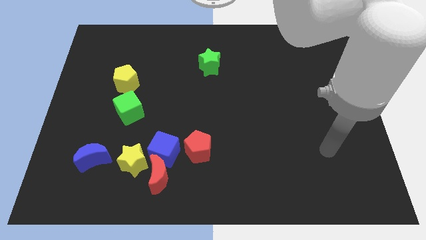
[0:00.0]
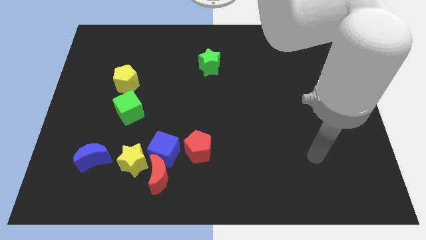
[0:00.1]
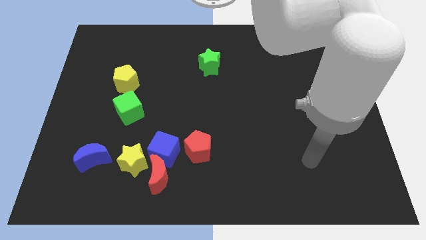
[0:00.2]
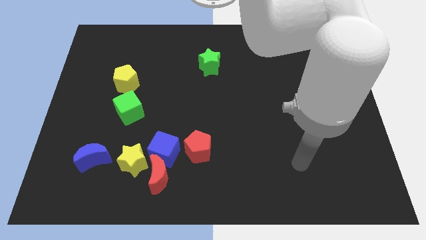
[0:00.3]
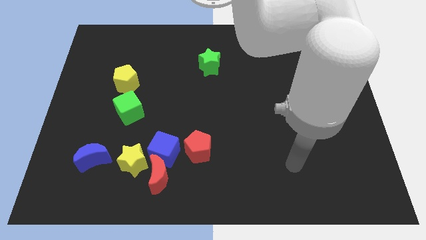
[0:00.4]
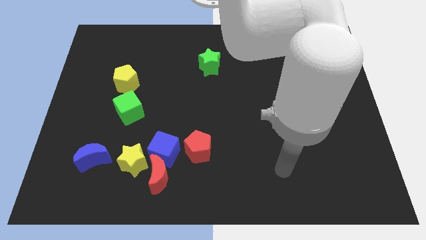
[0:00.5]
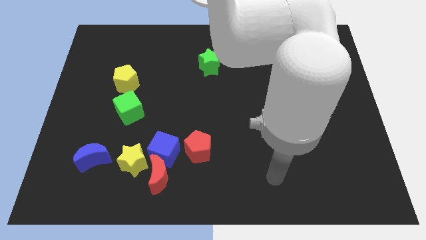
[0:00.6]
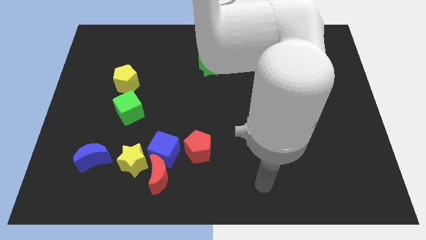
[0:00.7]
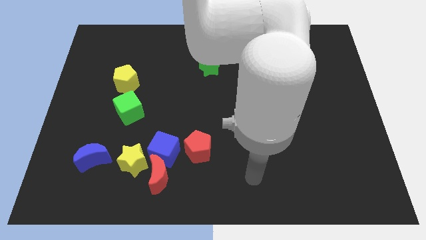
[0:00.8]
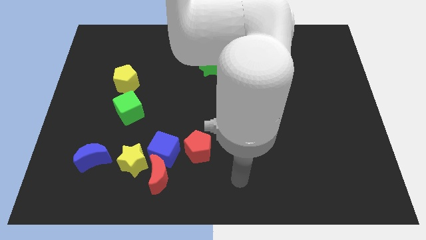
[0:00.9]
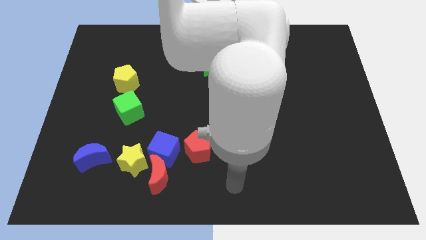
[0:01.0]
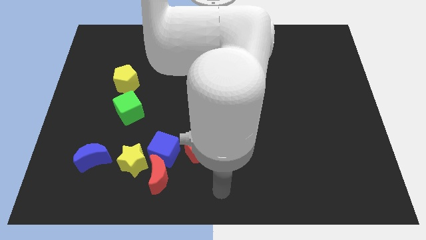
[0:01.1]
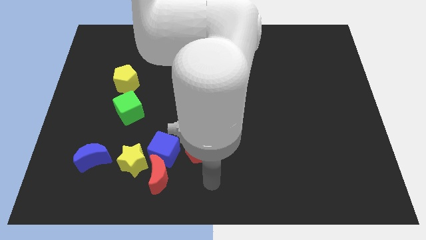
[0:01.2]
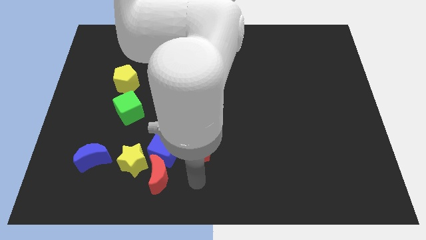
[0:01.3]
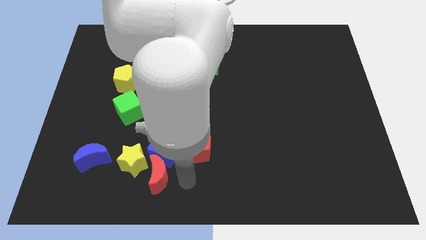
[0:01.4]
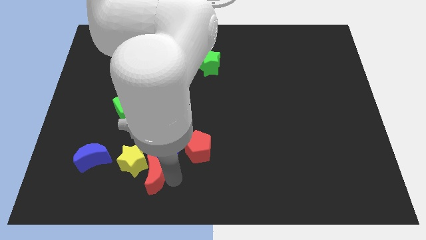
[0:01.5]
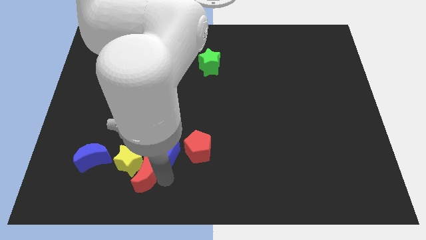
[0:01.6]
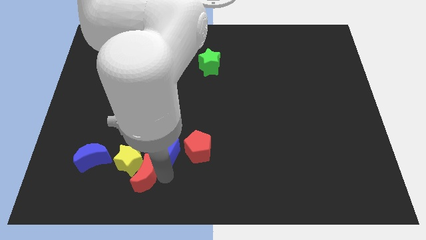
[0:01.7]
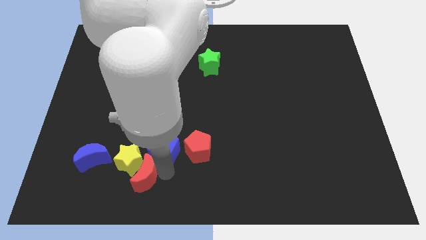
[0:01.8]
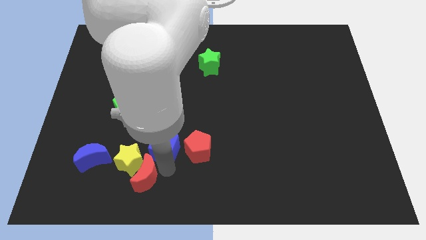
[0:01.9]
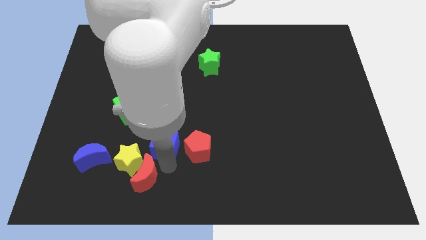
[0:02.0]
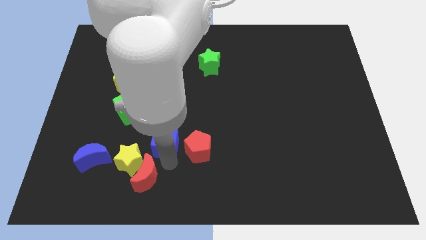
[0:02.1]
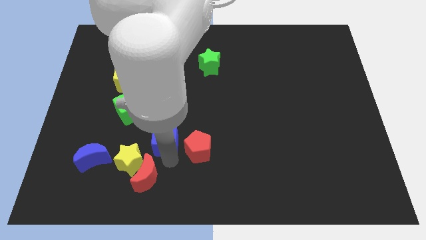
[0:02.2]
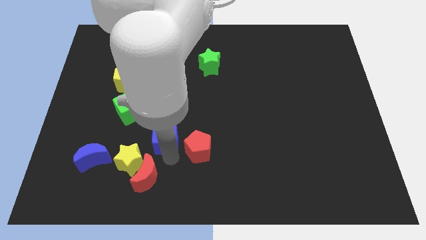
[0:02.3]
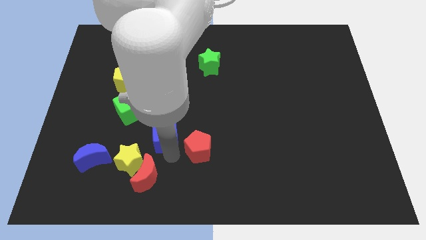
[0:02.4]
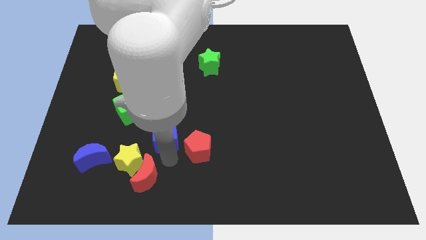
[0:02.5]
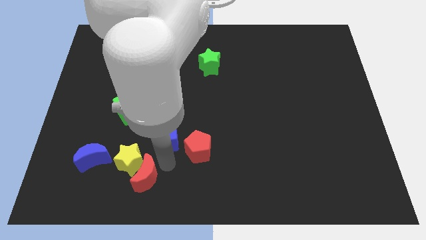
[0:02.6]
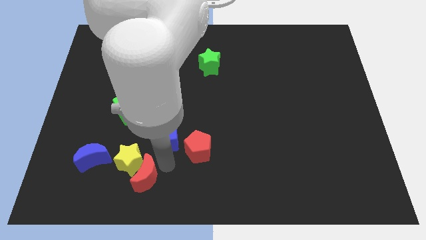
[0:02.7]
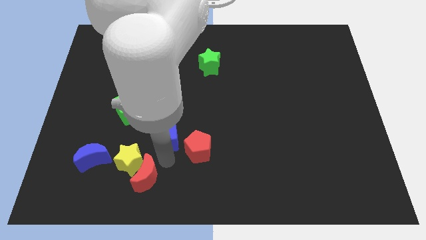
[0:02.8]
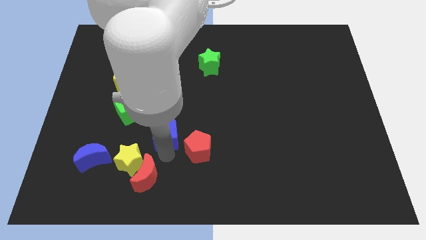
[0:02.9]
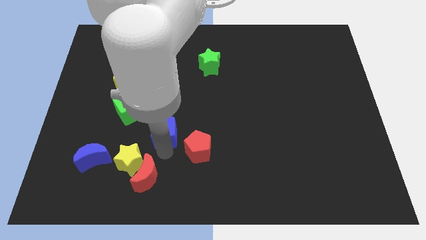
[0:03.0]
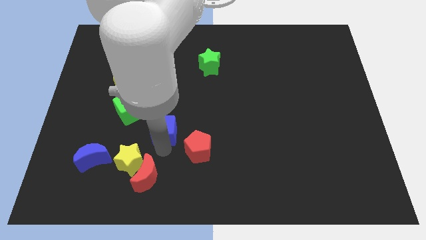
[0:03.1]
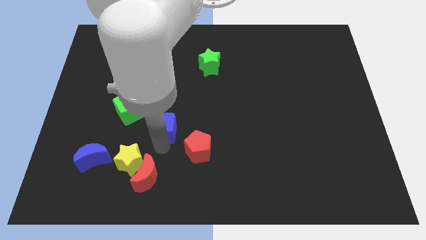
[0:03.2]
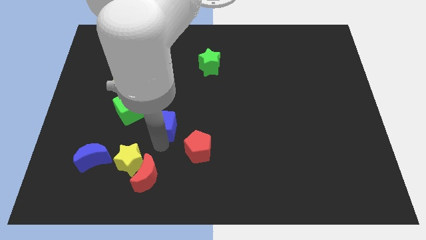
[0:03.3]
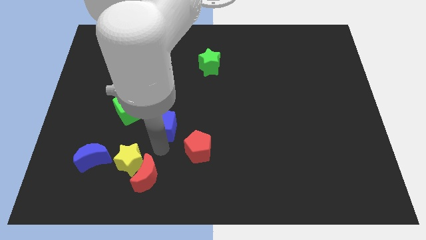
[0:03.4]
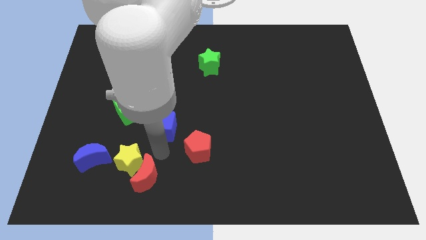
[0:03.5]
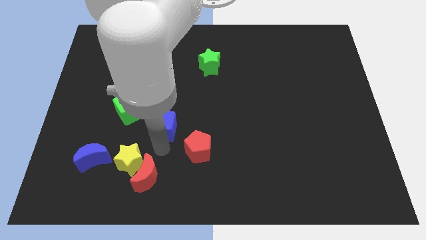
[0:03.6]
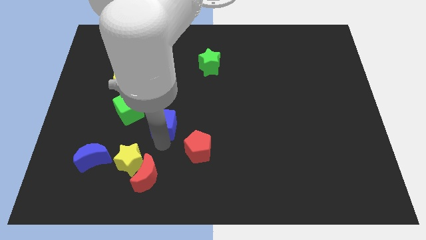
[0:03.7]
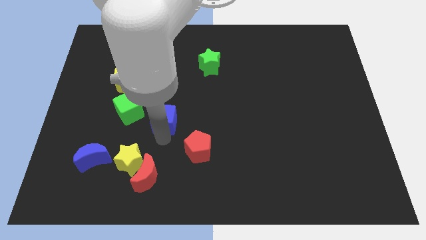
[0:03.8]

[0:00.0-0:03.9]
pull the blue cube apart from the red moon, yellow star, and red pentagon

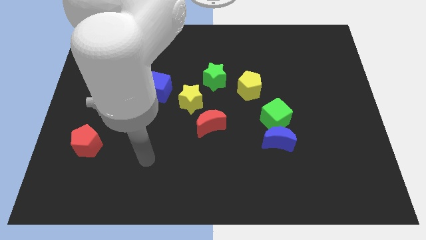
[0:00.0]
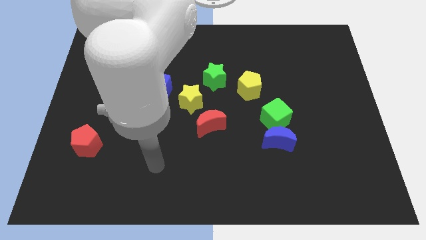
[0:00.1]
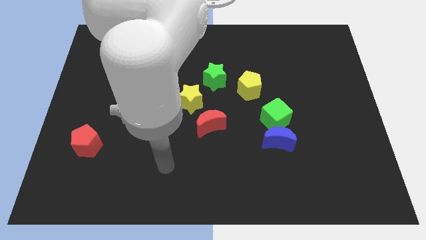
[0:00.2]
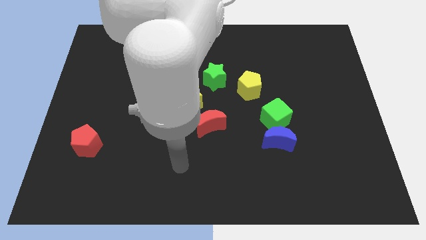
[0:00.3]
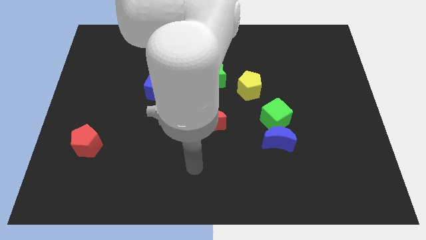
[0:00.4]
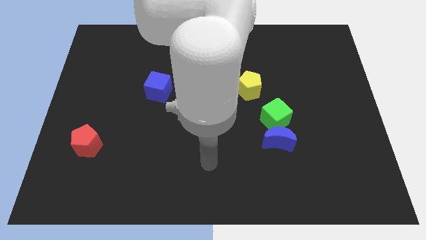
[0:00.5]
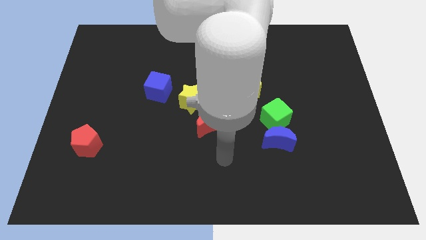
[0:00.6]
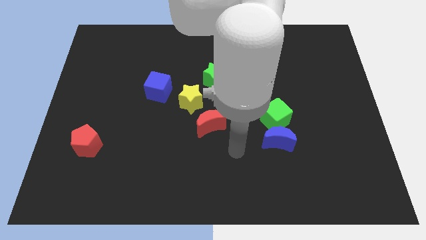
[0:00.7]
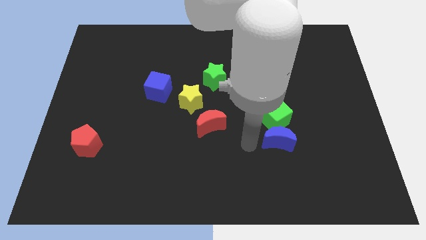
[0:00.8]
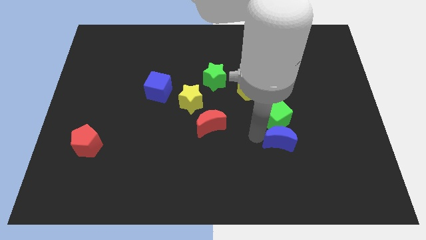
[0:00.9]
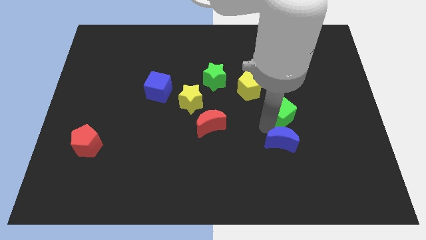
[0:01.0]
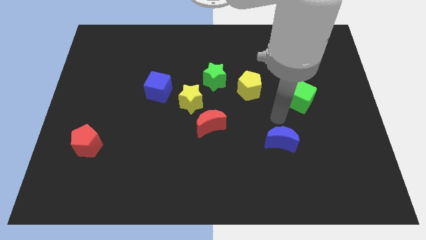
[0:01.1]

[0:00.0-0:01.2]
move the blue moon away from the green cube

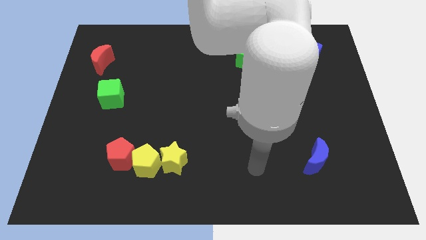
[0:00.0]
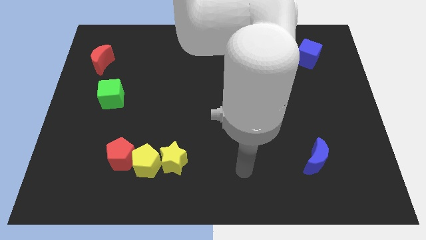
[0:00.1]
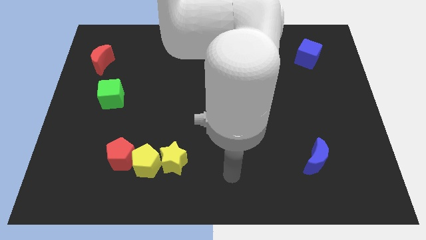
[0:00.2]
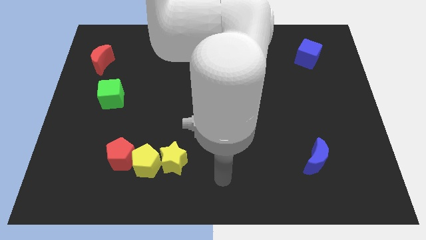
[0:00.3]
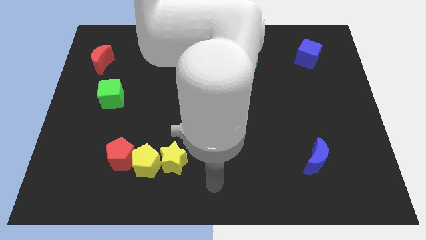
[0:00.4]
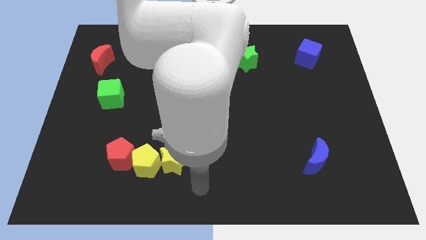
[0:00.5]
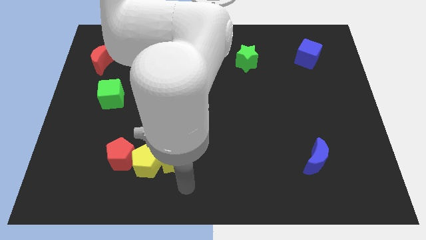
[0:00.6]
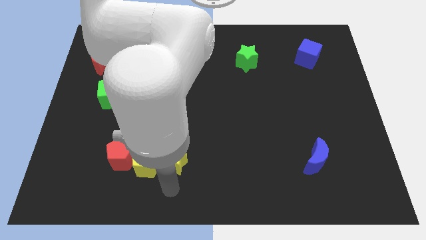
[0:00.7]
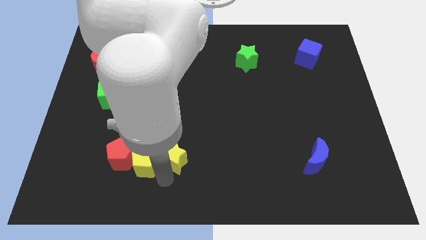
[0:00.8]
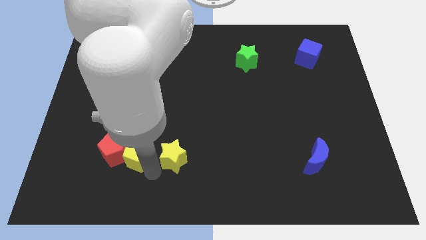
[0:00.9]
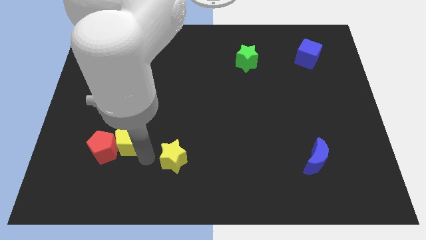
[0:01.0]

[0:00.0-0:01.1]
move the yellow star away from the yellow pentagon

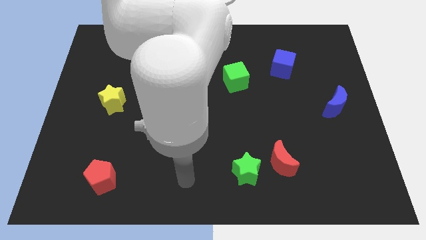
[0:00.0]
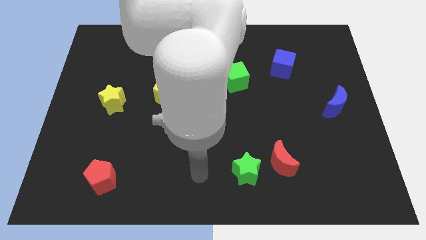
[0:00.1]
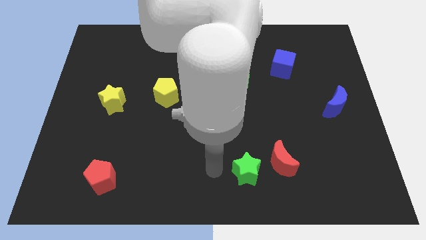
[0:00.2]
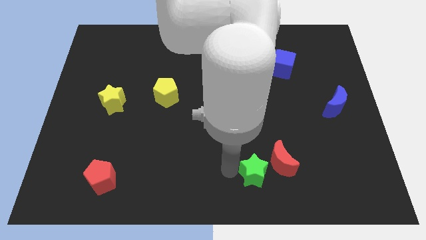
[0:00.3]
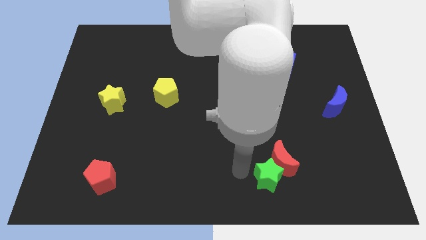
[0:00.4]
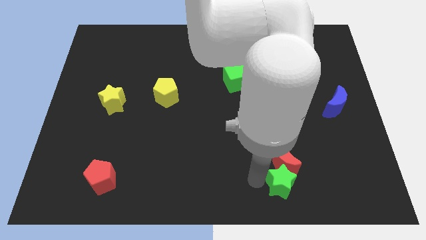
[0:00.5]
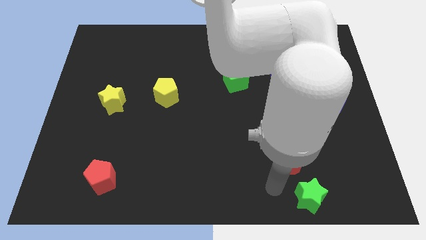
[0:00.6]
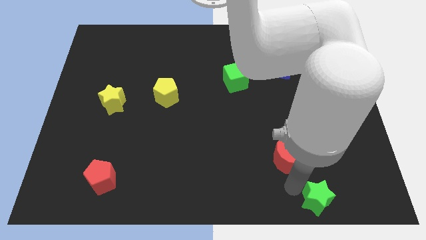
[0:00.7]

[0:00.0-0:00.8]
pull the red moon apart from the green star

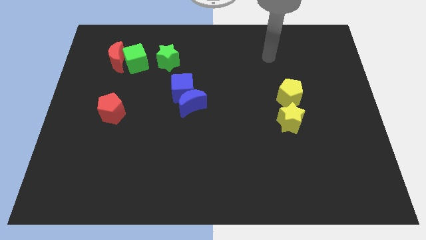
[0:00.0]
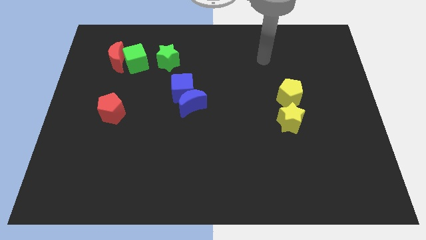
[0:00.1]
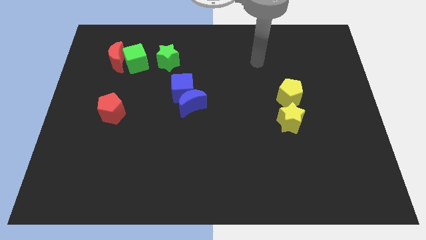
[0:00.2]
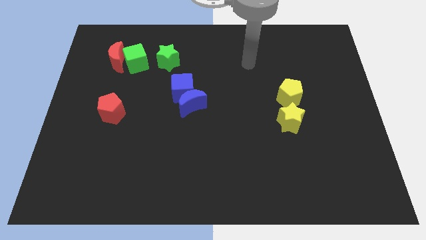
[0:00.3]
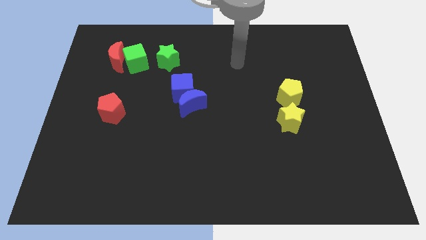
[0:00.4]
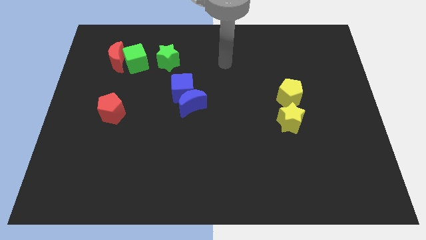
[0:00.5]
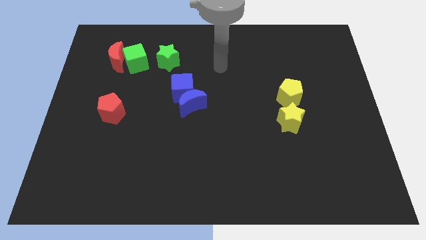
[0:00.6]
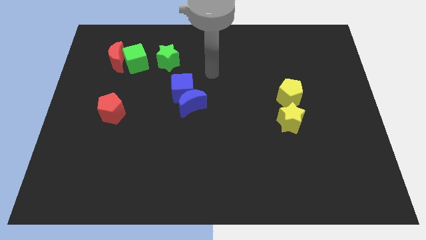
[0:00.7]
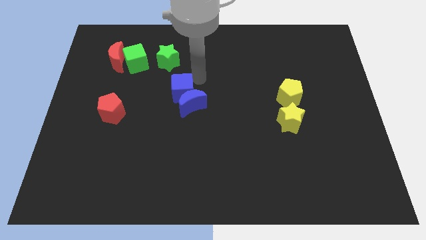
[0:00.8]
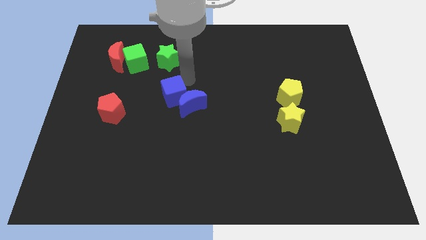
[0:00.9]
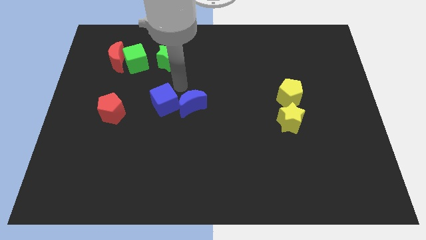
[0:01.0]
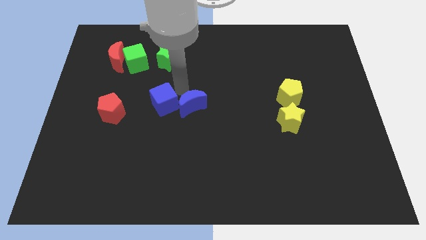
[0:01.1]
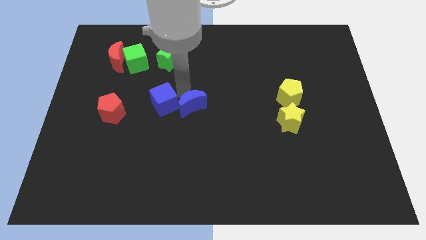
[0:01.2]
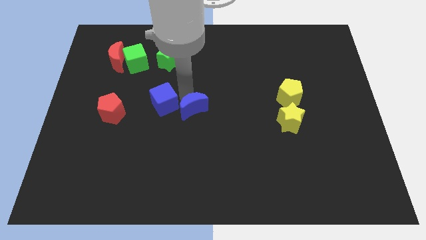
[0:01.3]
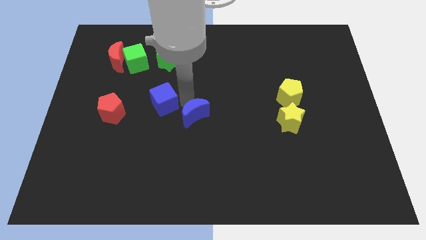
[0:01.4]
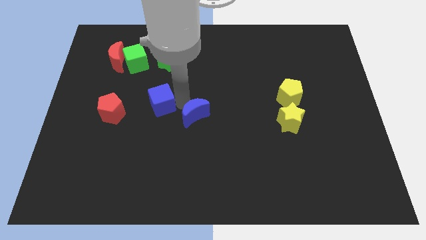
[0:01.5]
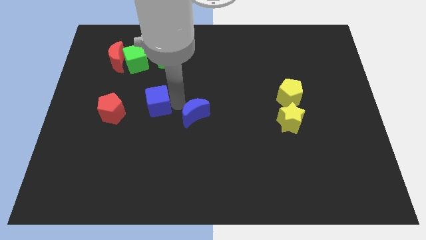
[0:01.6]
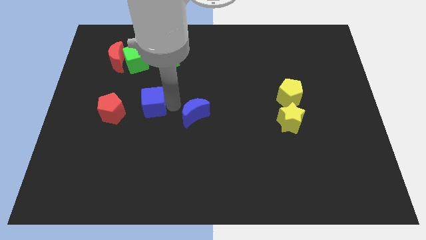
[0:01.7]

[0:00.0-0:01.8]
separate the blue moon from the blue cube

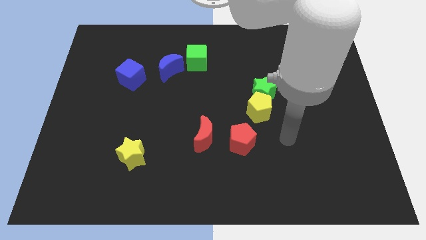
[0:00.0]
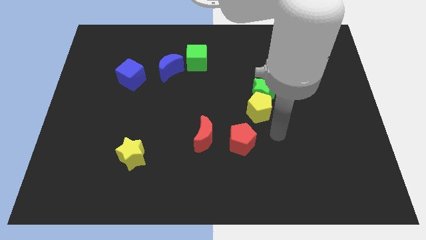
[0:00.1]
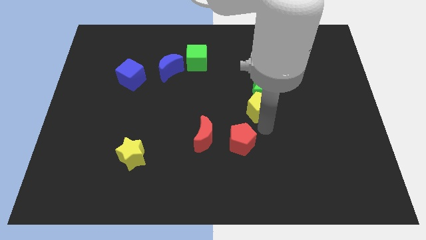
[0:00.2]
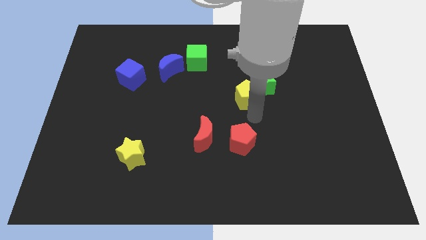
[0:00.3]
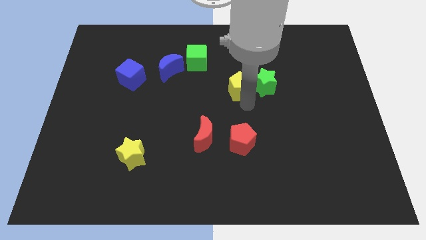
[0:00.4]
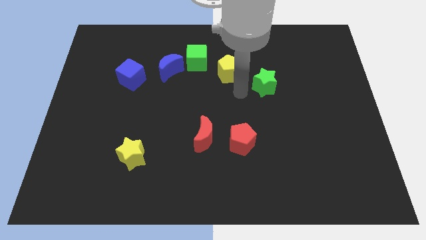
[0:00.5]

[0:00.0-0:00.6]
move the green star away from the yellow pentagon

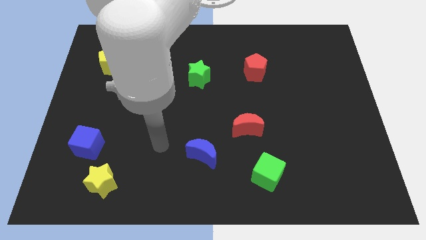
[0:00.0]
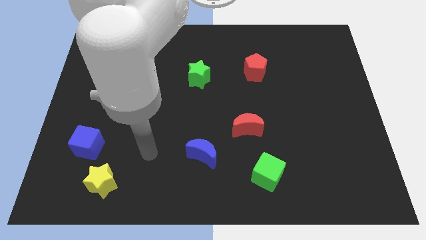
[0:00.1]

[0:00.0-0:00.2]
separate the blue cube from the yellow star
